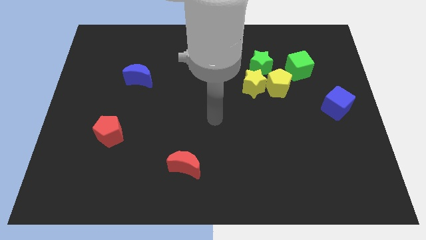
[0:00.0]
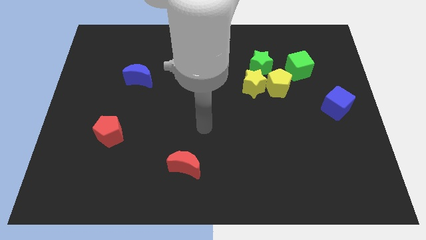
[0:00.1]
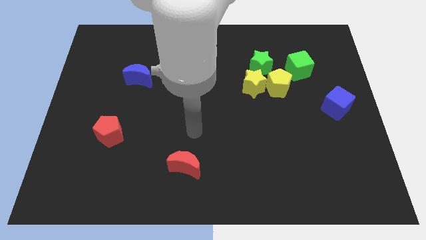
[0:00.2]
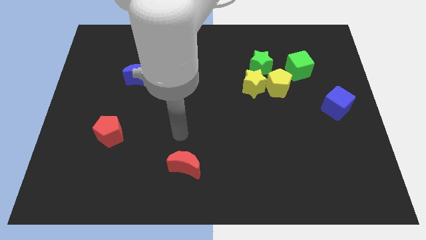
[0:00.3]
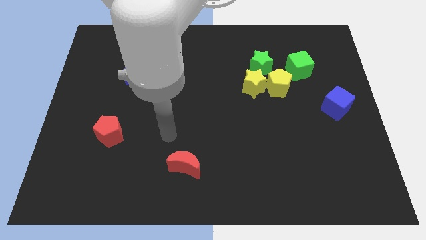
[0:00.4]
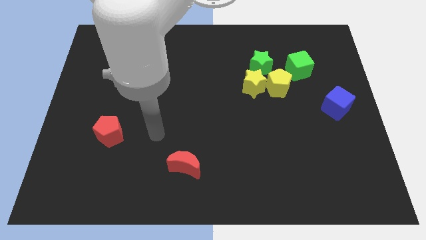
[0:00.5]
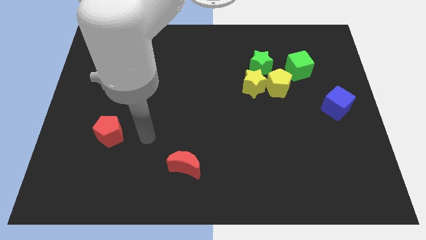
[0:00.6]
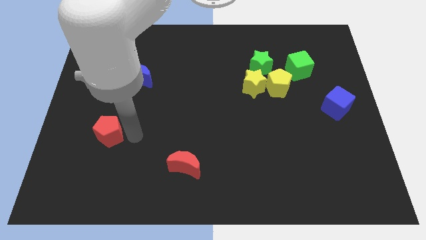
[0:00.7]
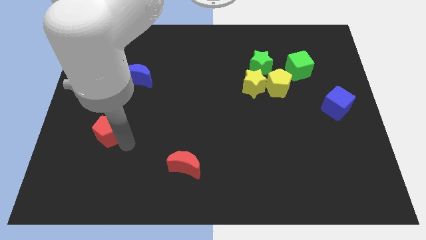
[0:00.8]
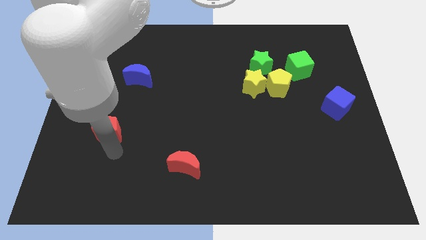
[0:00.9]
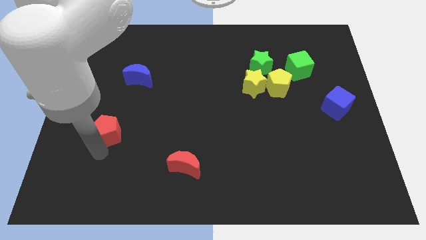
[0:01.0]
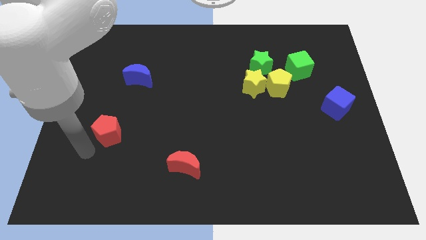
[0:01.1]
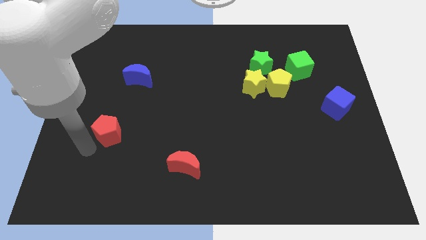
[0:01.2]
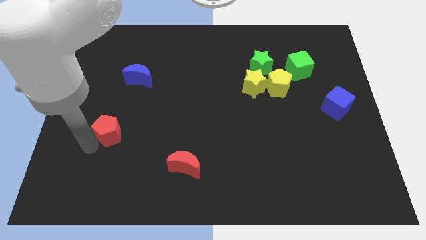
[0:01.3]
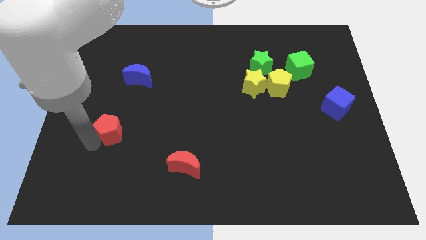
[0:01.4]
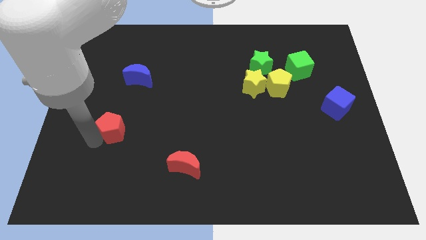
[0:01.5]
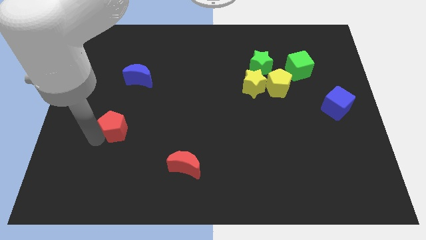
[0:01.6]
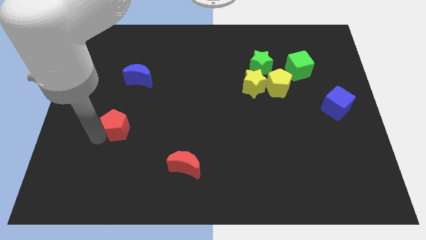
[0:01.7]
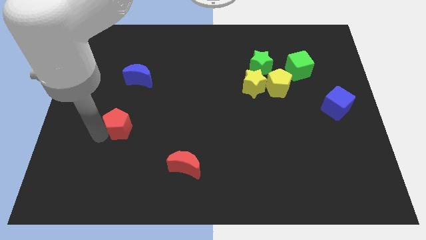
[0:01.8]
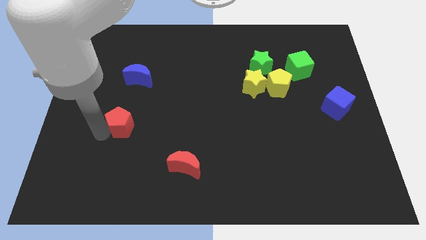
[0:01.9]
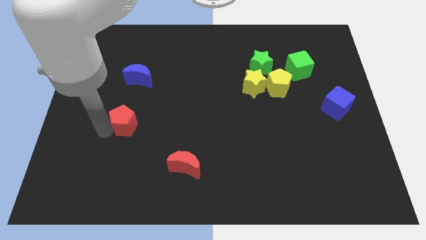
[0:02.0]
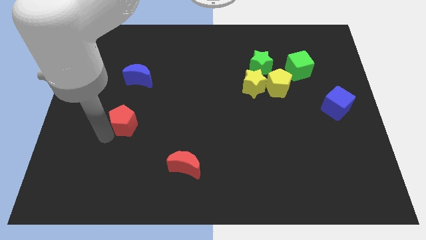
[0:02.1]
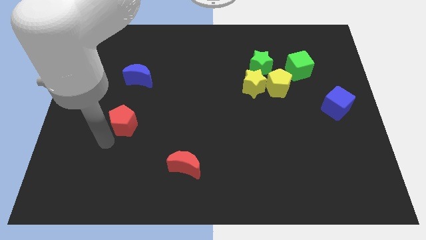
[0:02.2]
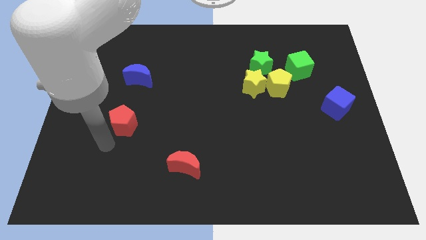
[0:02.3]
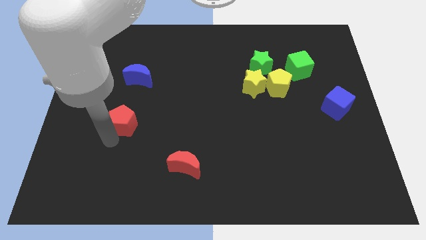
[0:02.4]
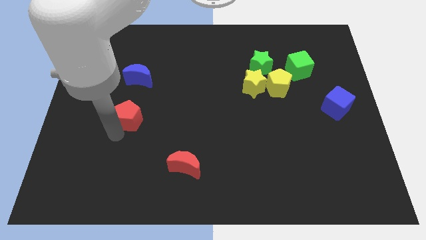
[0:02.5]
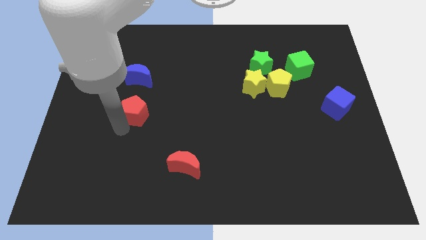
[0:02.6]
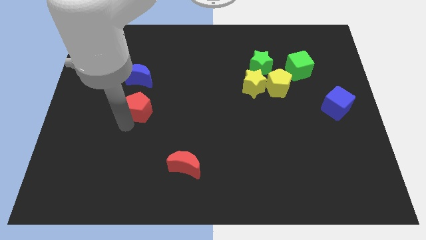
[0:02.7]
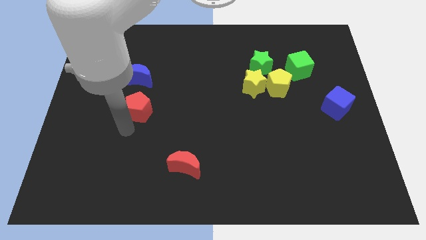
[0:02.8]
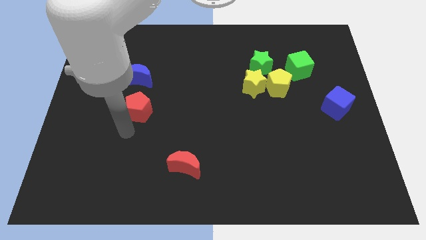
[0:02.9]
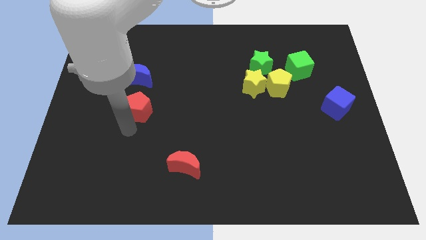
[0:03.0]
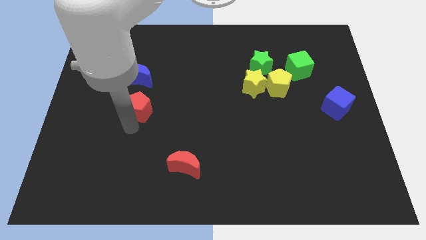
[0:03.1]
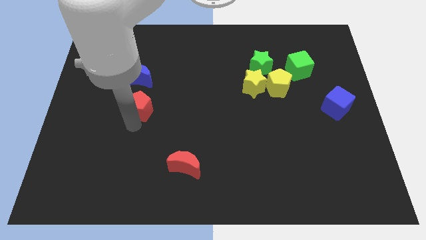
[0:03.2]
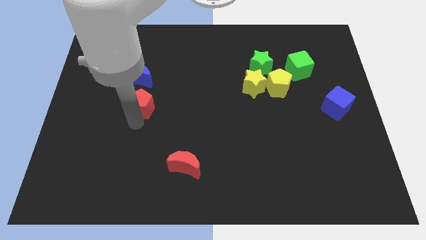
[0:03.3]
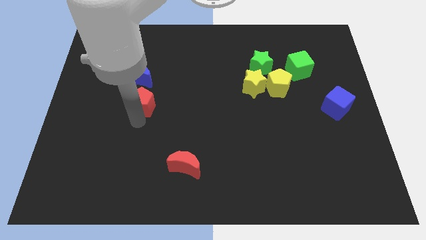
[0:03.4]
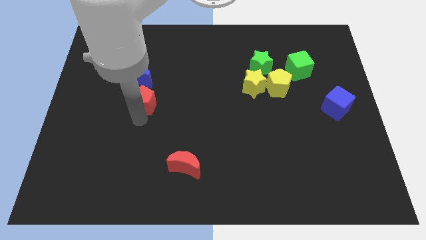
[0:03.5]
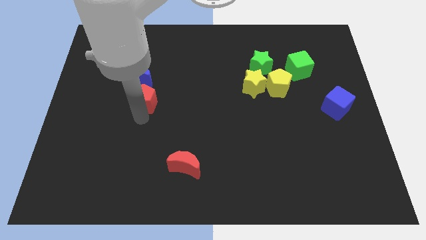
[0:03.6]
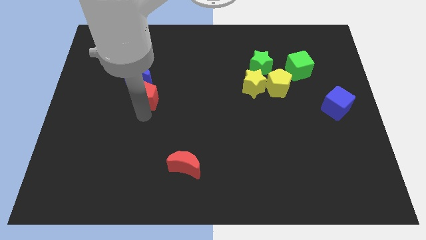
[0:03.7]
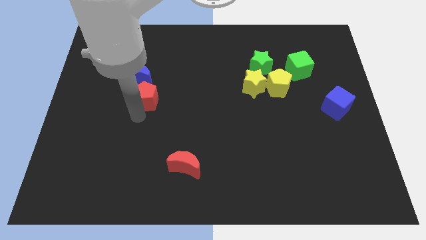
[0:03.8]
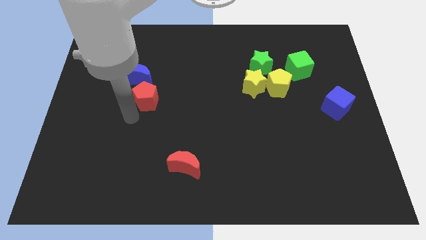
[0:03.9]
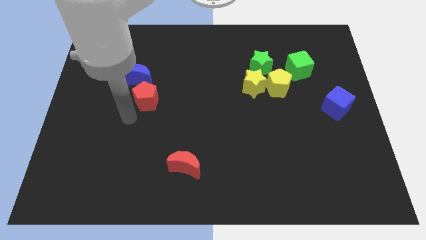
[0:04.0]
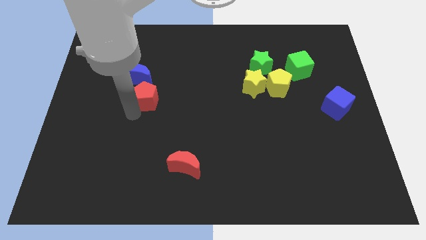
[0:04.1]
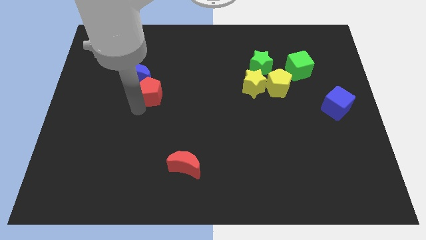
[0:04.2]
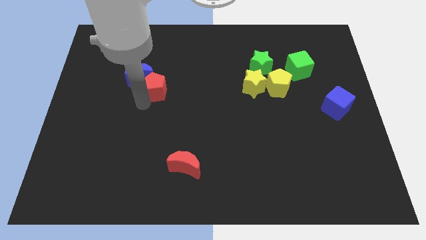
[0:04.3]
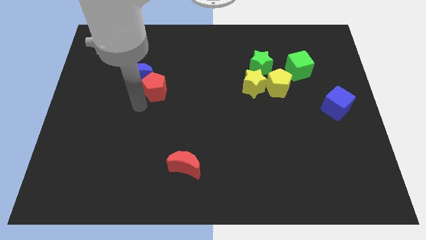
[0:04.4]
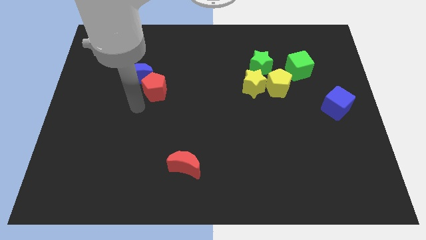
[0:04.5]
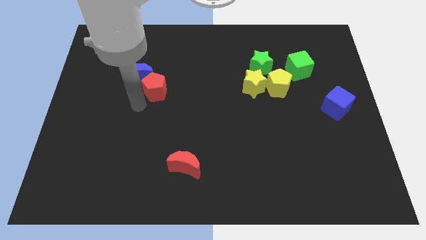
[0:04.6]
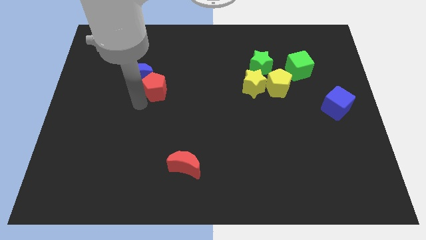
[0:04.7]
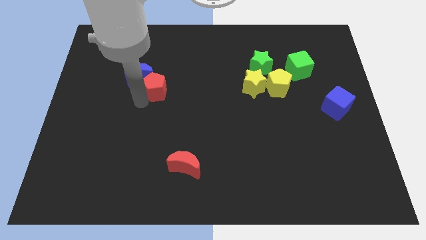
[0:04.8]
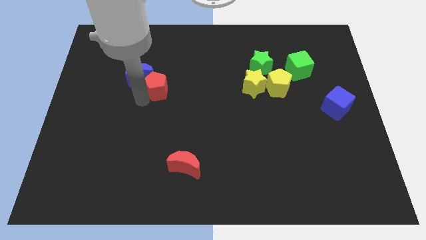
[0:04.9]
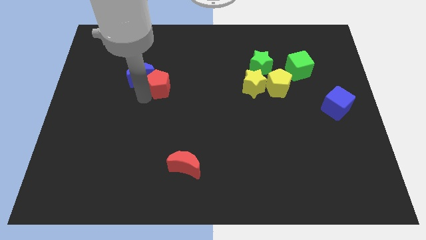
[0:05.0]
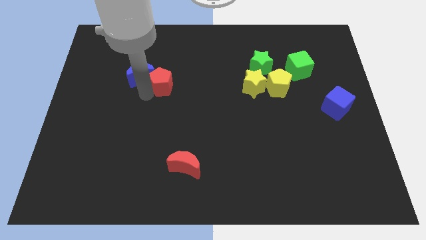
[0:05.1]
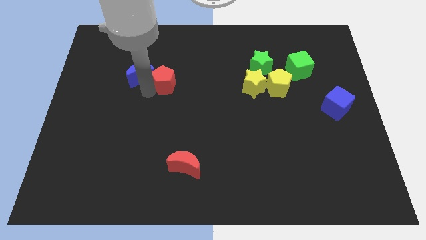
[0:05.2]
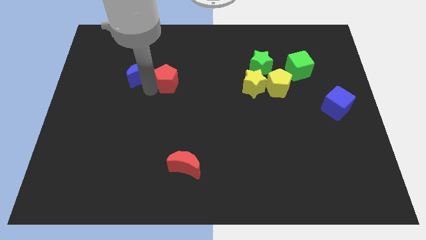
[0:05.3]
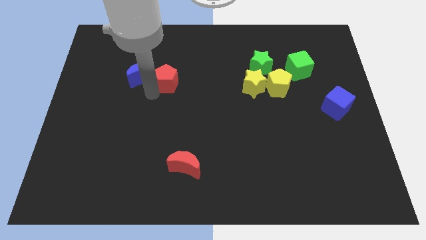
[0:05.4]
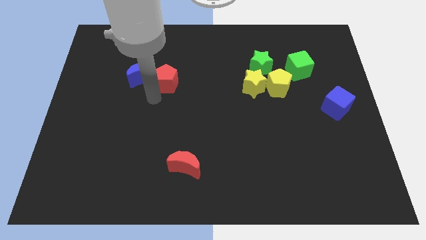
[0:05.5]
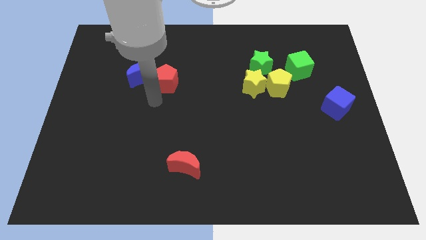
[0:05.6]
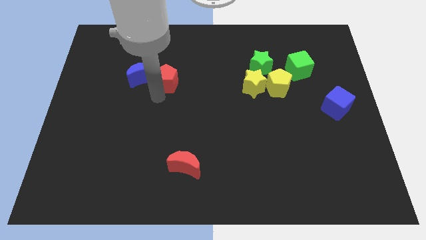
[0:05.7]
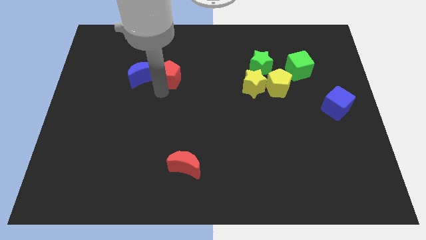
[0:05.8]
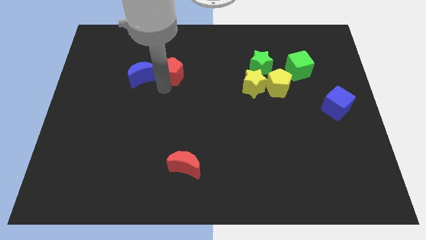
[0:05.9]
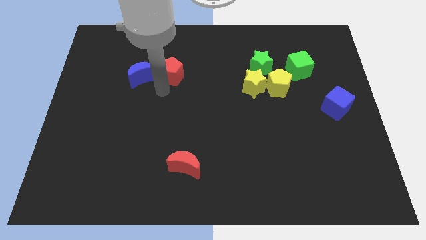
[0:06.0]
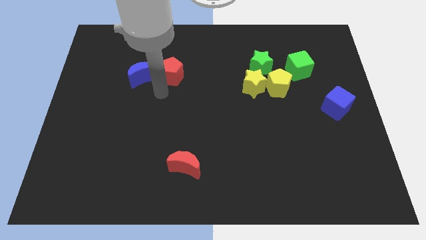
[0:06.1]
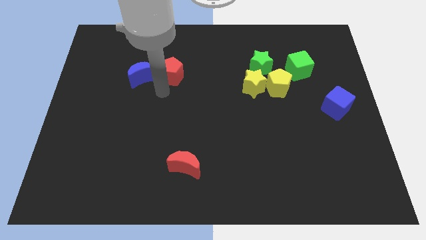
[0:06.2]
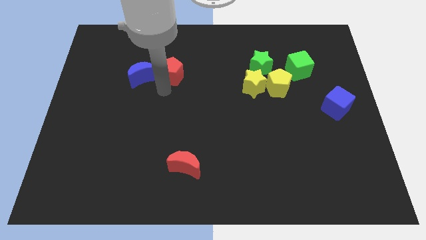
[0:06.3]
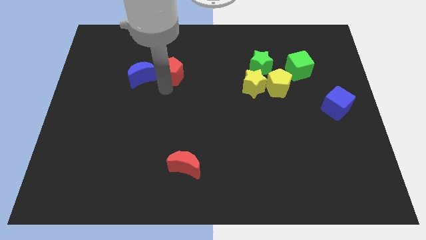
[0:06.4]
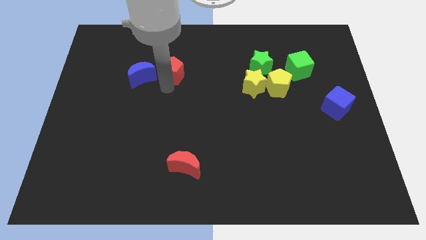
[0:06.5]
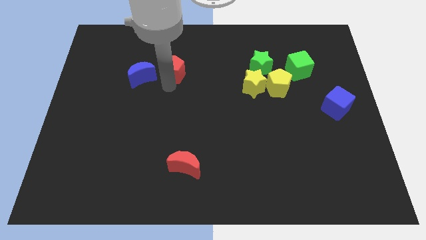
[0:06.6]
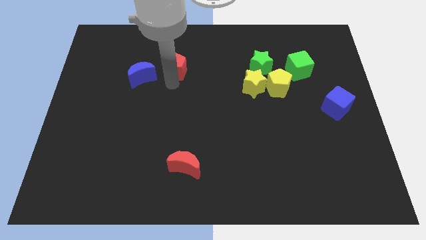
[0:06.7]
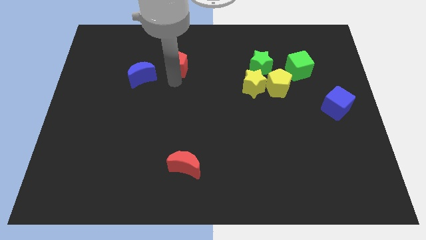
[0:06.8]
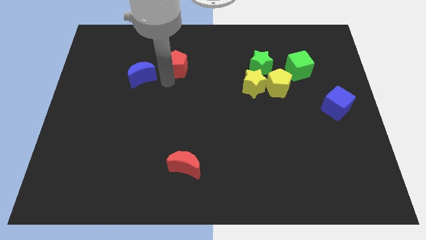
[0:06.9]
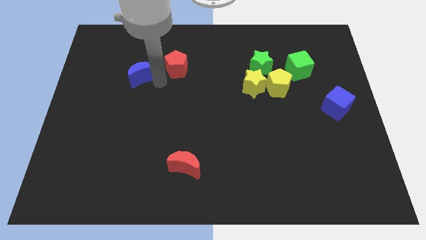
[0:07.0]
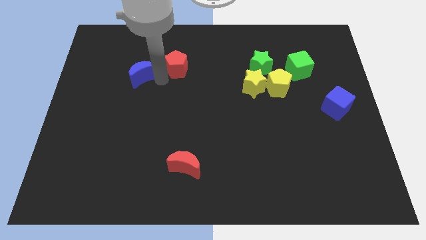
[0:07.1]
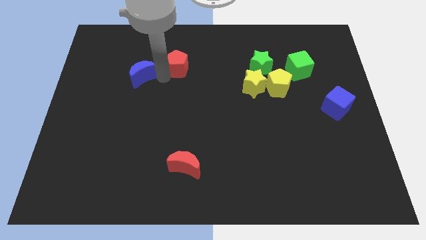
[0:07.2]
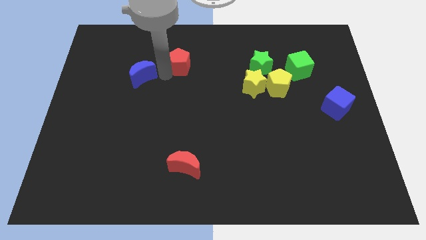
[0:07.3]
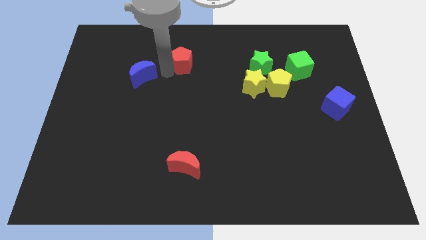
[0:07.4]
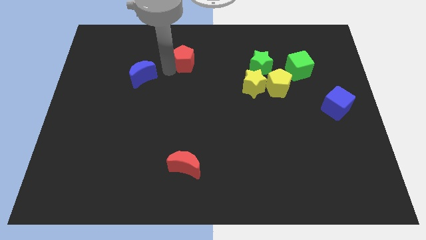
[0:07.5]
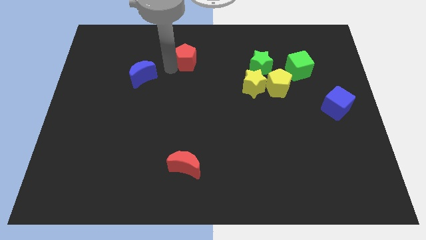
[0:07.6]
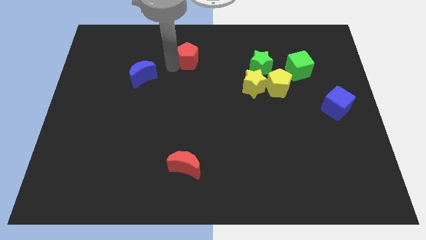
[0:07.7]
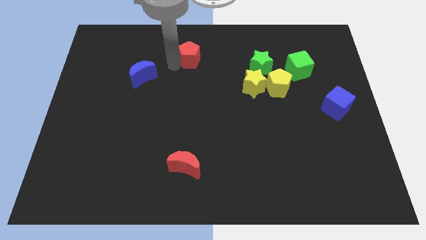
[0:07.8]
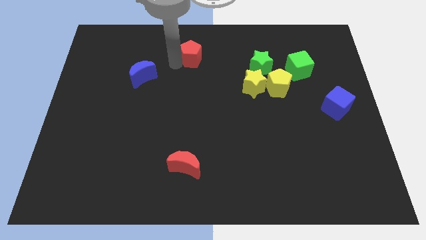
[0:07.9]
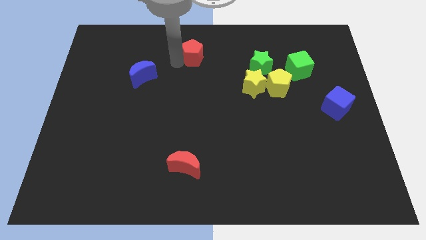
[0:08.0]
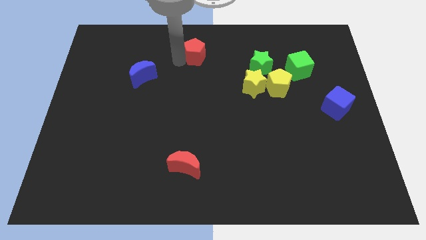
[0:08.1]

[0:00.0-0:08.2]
put the red pentagon to the top side
